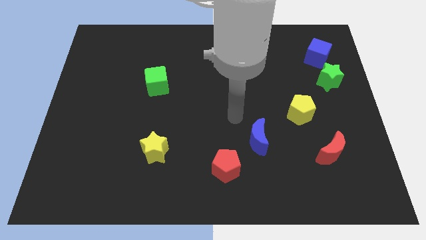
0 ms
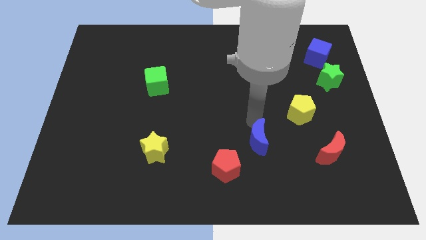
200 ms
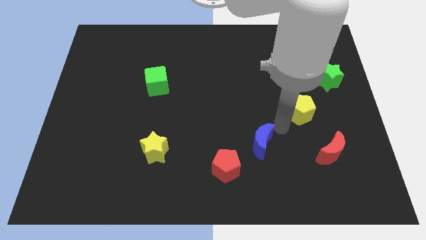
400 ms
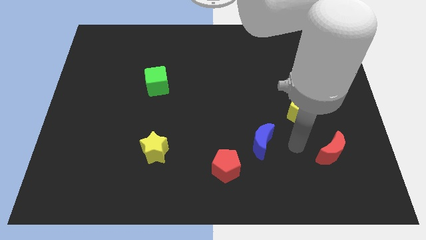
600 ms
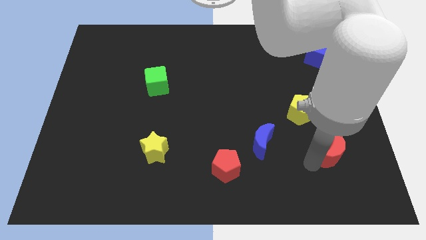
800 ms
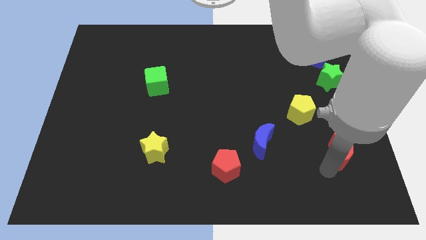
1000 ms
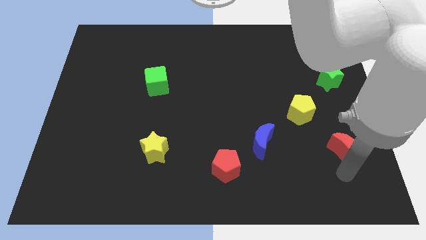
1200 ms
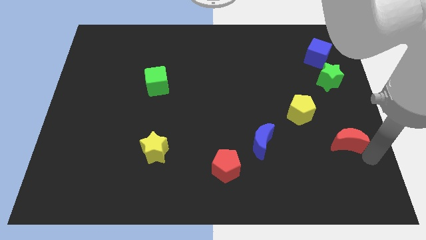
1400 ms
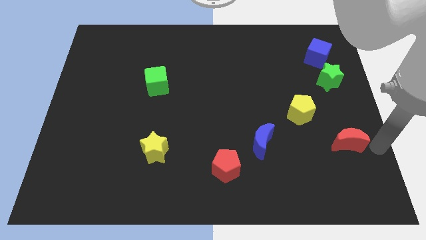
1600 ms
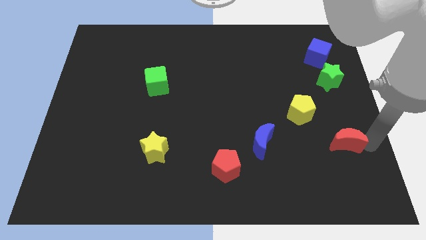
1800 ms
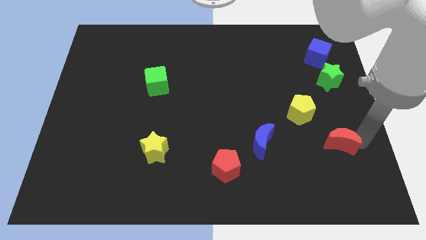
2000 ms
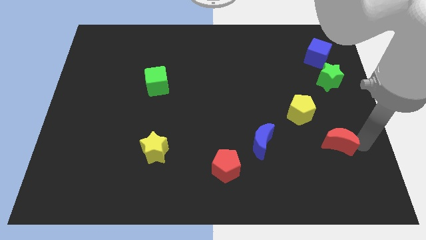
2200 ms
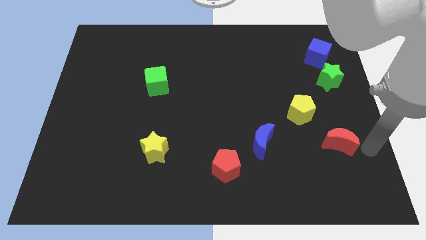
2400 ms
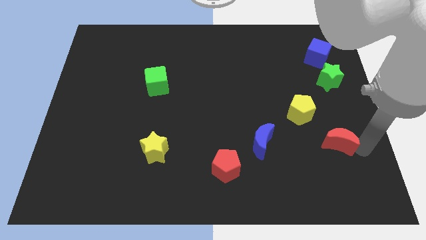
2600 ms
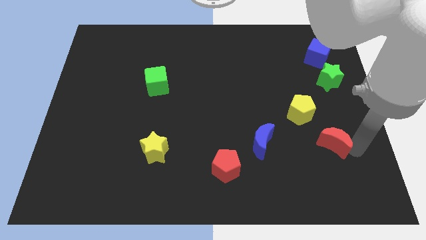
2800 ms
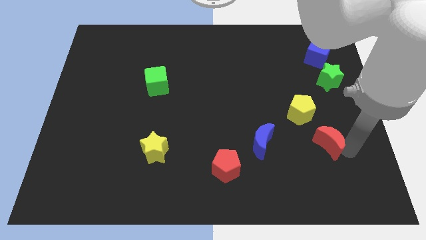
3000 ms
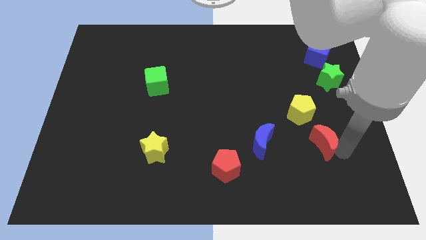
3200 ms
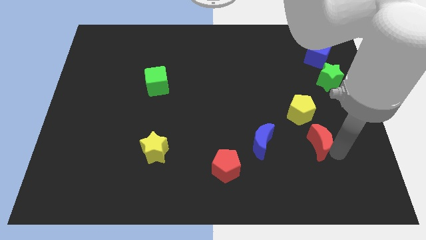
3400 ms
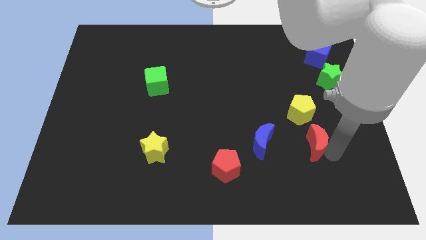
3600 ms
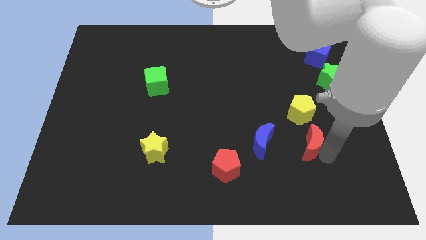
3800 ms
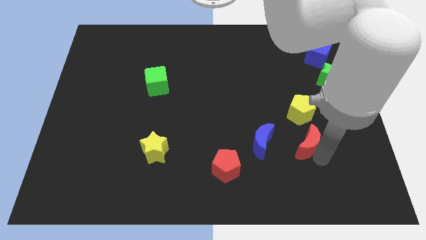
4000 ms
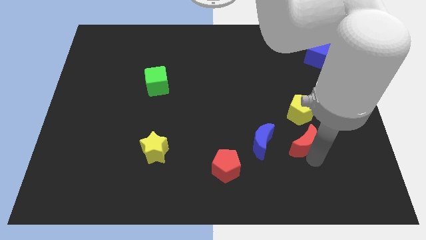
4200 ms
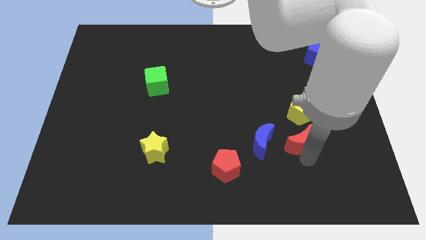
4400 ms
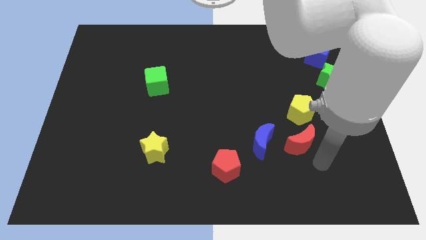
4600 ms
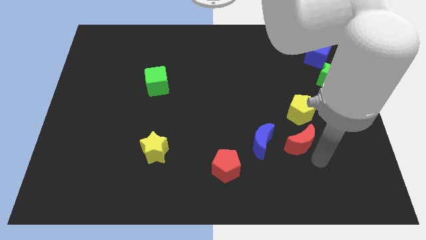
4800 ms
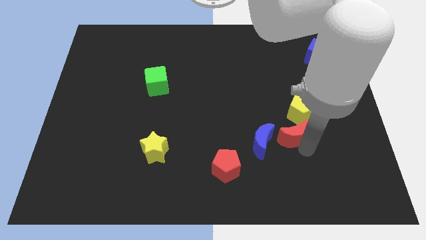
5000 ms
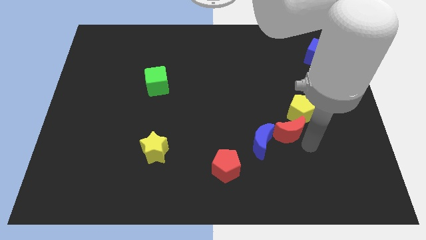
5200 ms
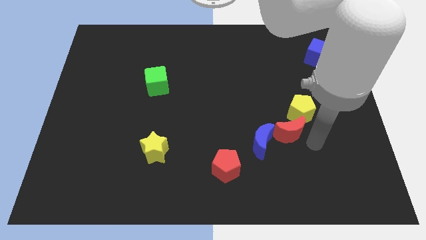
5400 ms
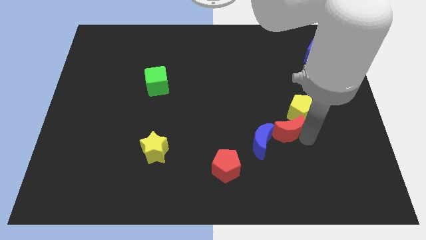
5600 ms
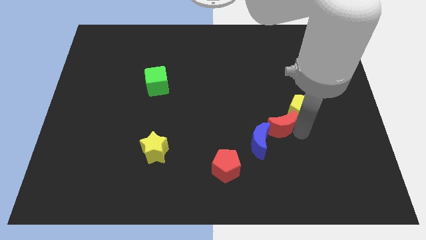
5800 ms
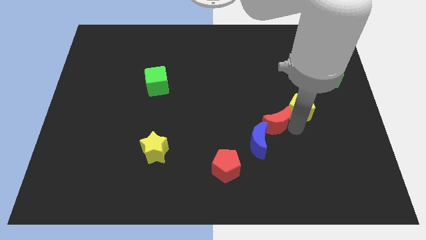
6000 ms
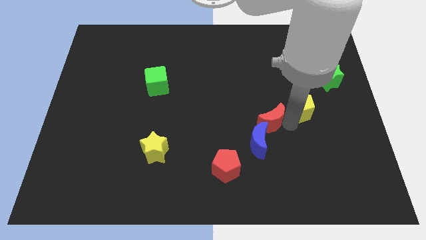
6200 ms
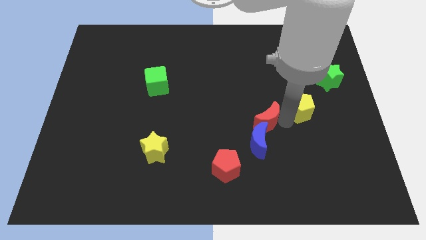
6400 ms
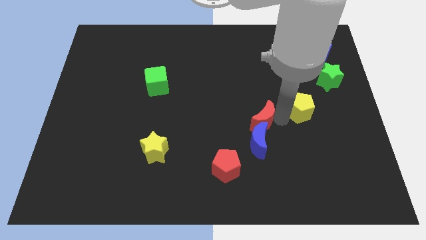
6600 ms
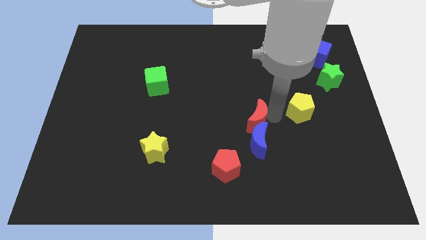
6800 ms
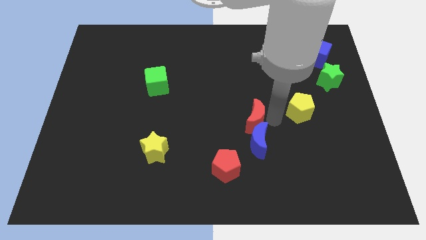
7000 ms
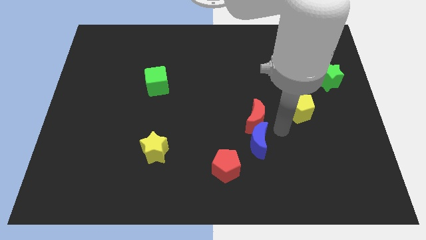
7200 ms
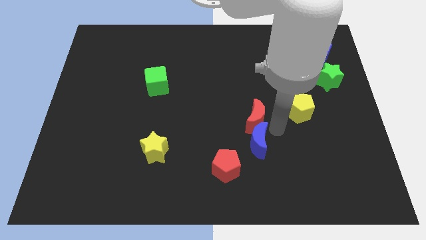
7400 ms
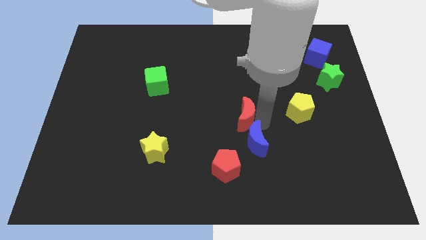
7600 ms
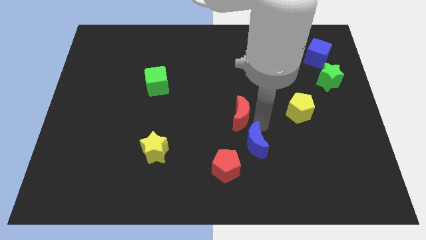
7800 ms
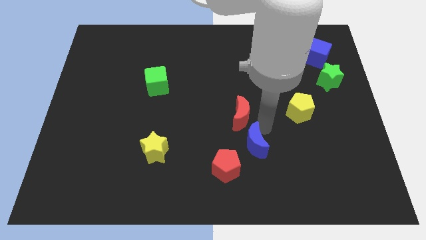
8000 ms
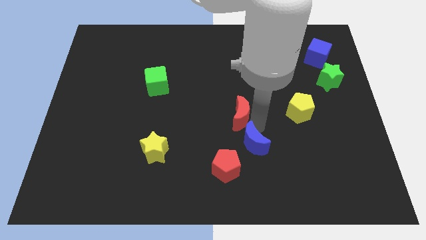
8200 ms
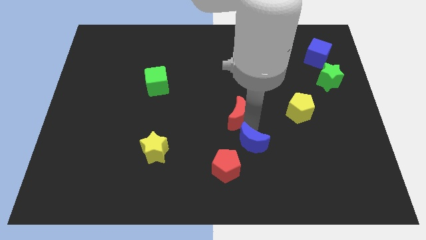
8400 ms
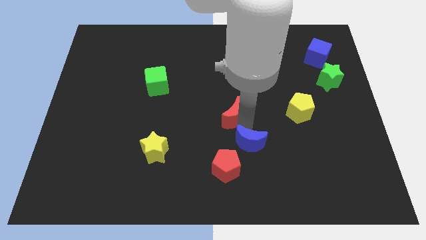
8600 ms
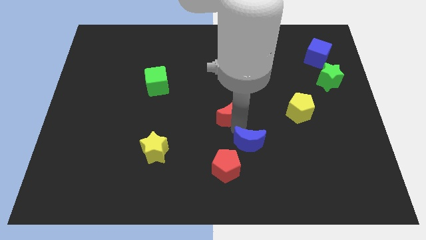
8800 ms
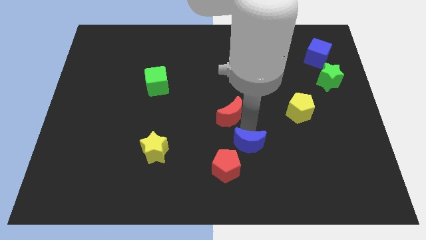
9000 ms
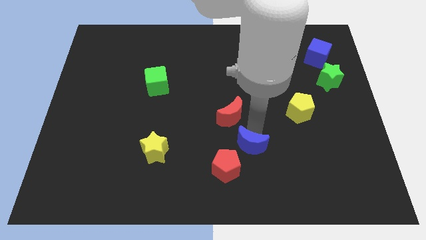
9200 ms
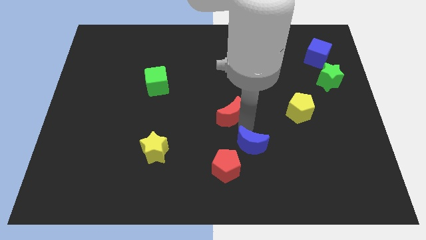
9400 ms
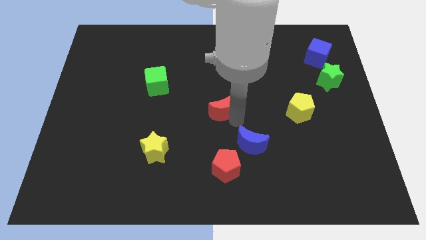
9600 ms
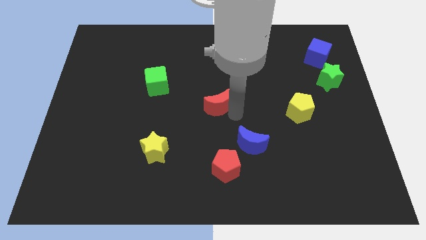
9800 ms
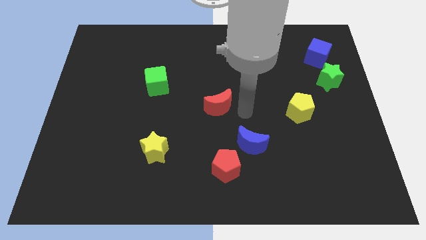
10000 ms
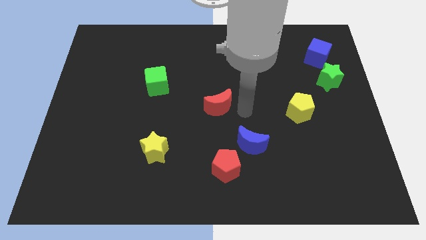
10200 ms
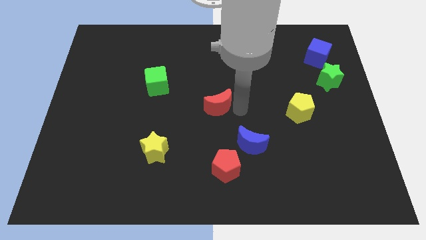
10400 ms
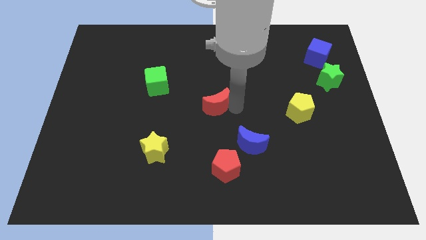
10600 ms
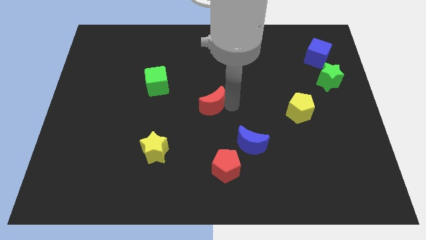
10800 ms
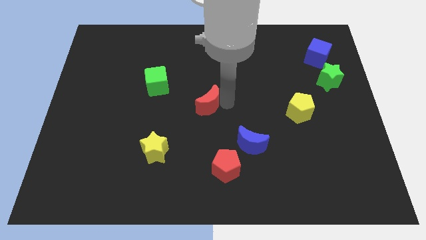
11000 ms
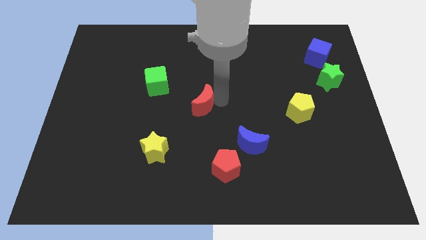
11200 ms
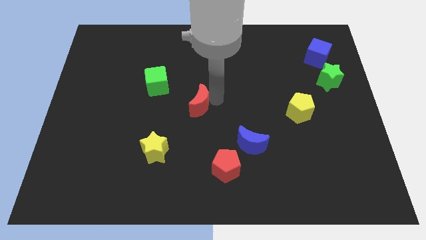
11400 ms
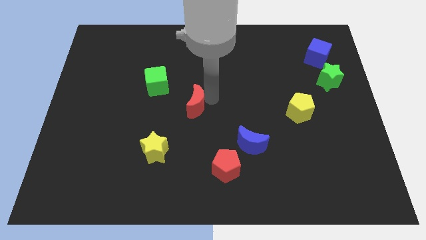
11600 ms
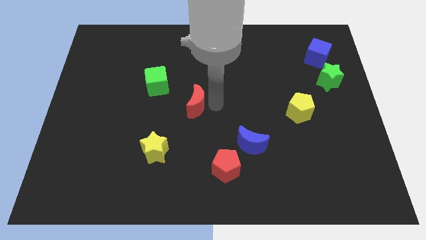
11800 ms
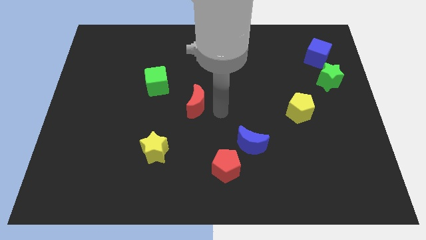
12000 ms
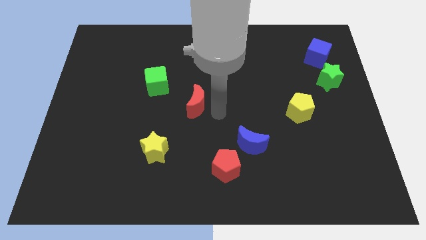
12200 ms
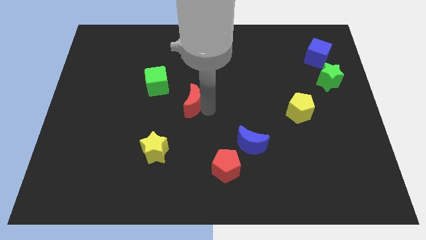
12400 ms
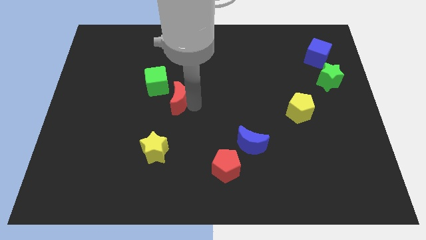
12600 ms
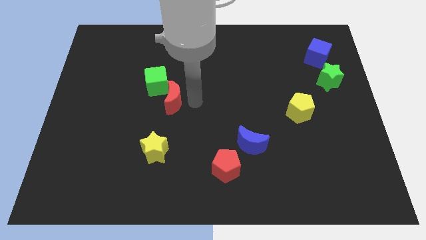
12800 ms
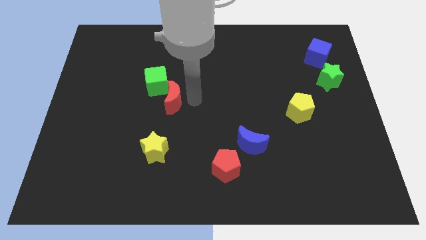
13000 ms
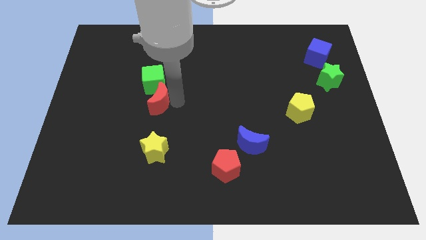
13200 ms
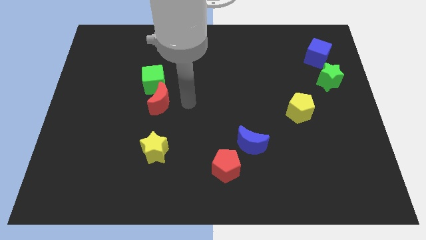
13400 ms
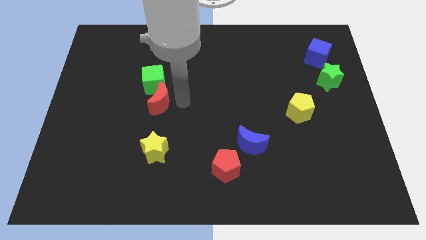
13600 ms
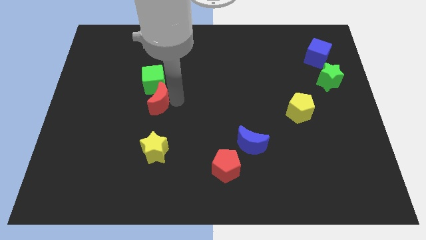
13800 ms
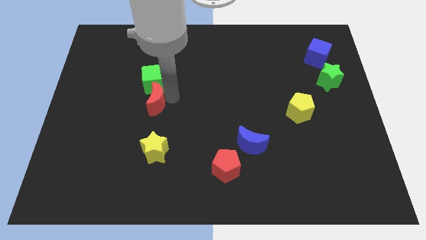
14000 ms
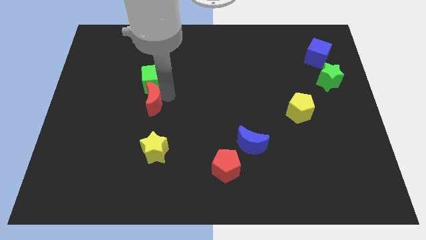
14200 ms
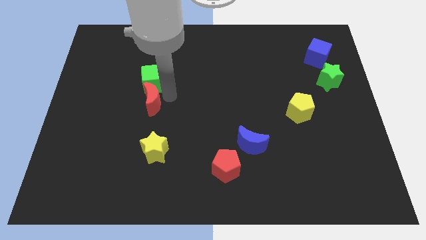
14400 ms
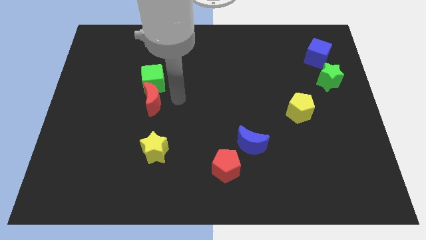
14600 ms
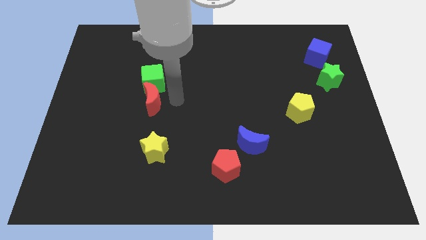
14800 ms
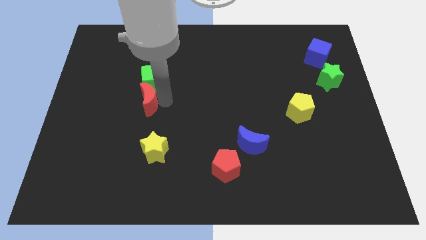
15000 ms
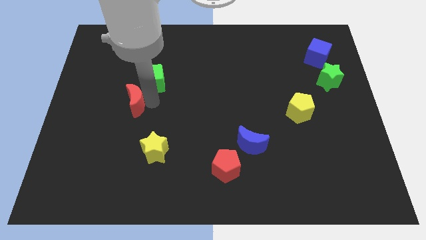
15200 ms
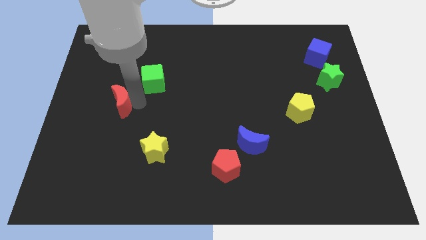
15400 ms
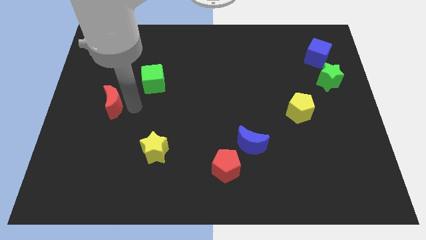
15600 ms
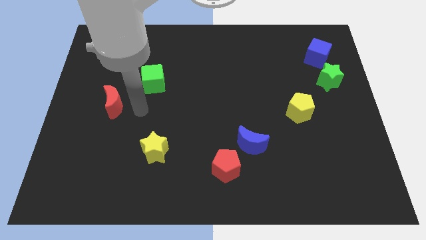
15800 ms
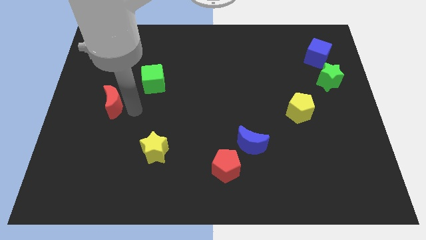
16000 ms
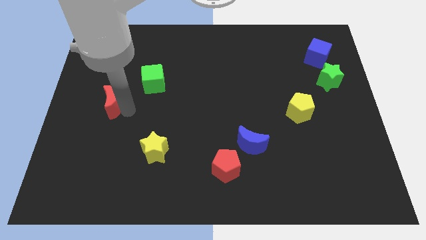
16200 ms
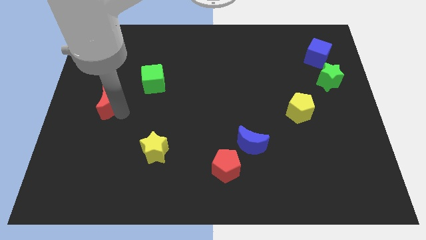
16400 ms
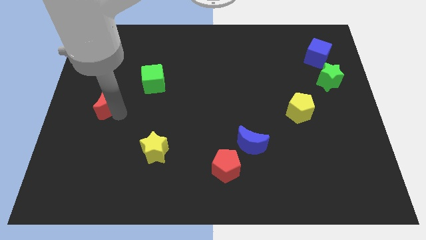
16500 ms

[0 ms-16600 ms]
push the red moon to the left side of the board

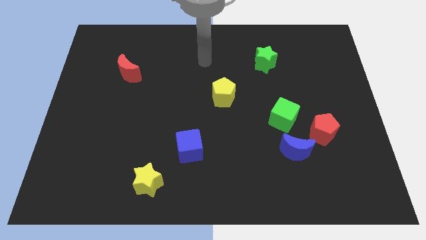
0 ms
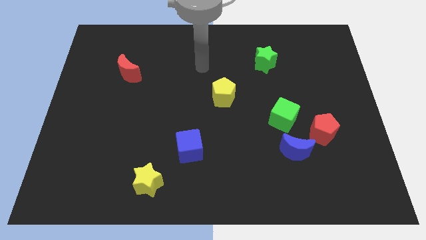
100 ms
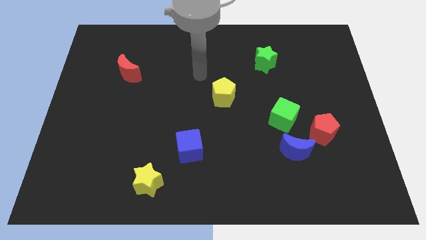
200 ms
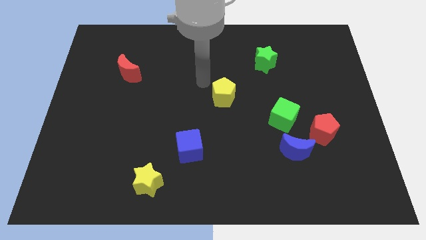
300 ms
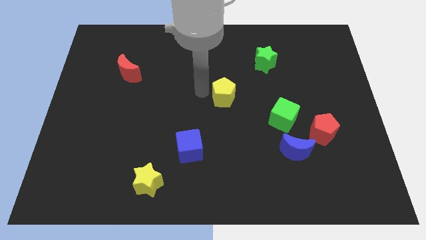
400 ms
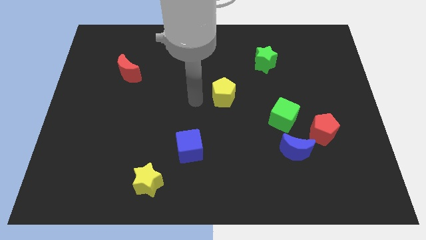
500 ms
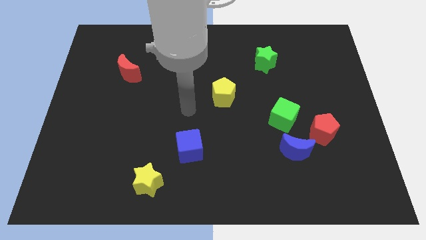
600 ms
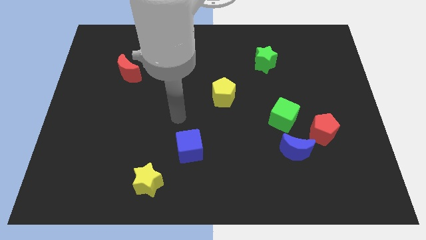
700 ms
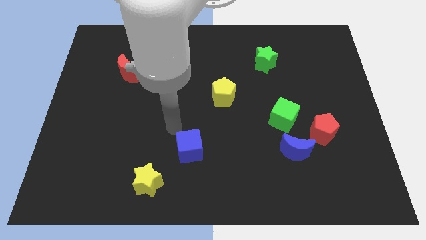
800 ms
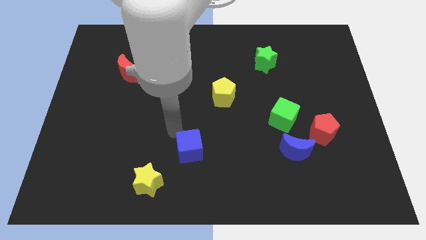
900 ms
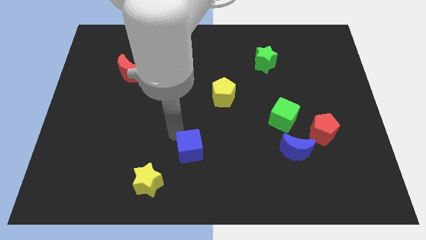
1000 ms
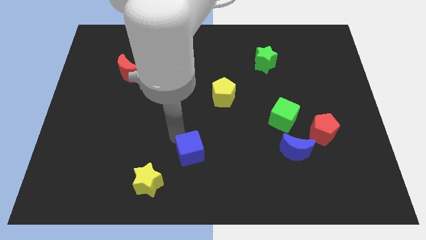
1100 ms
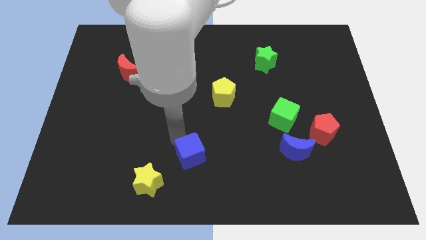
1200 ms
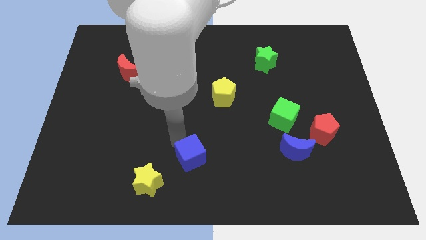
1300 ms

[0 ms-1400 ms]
move the blue cube to the bottom side
